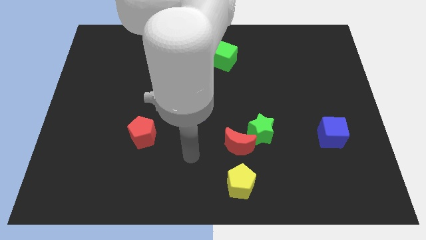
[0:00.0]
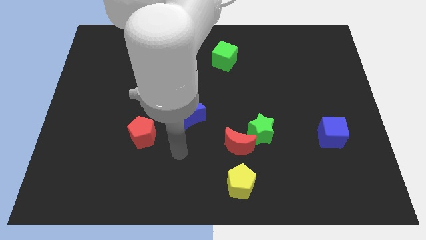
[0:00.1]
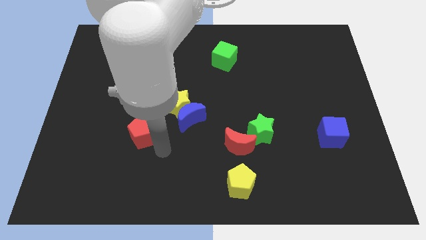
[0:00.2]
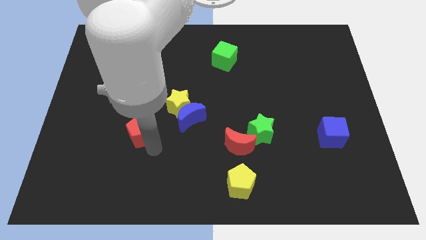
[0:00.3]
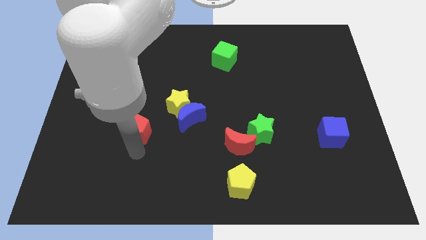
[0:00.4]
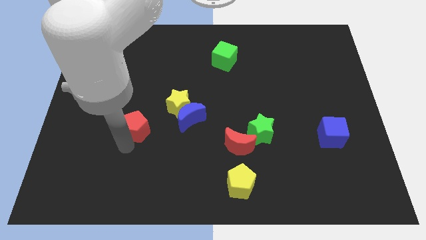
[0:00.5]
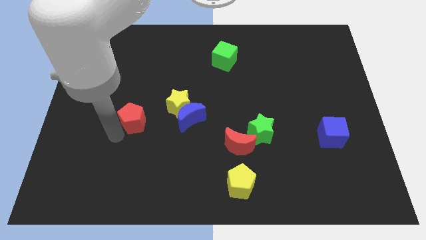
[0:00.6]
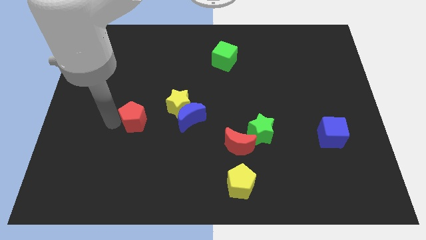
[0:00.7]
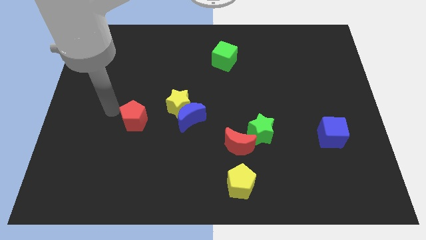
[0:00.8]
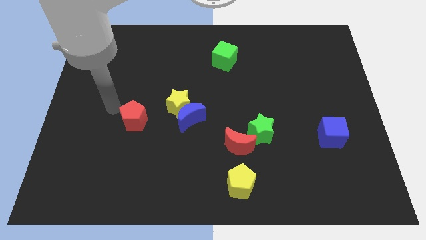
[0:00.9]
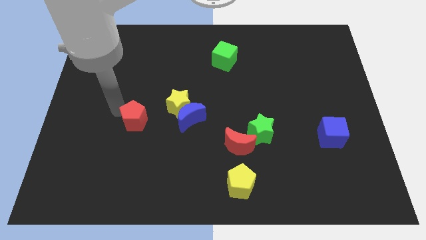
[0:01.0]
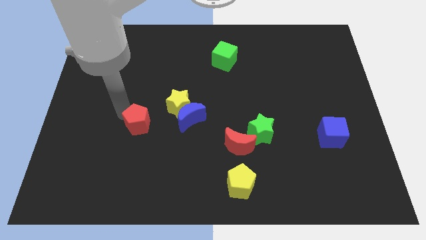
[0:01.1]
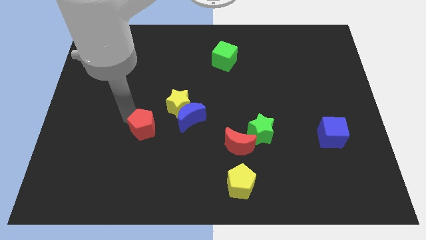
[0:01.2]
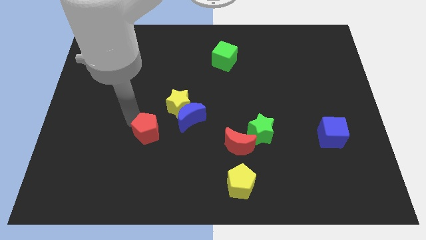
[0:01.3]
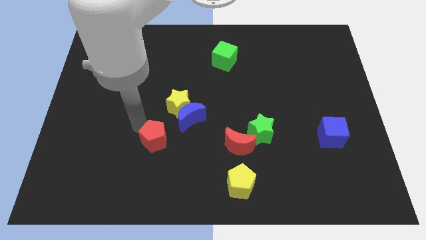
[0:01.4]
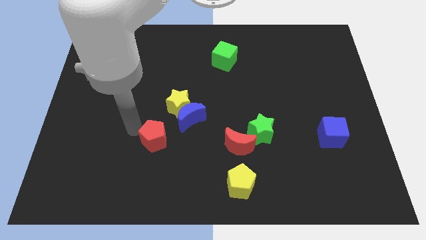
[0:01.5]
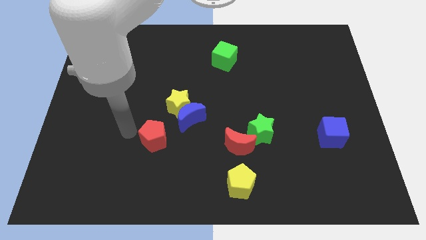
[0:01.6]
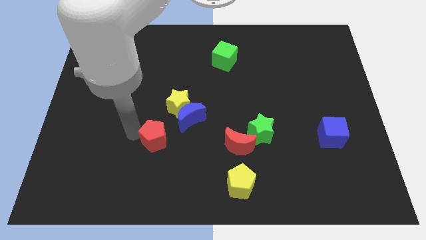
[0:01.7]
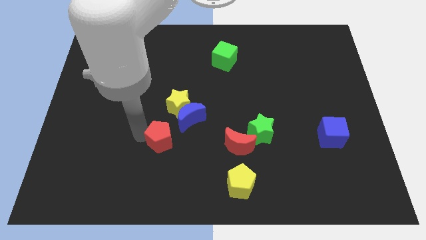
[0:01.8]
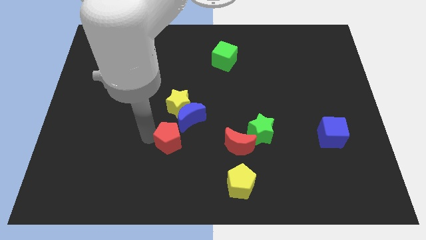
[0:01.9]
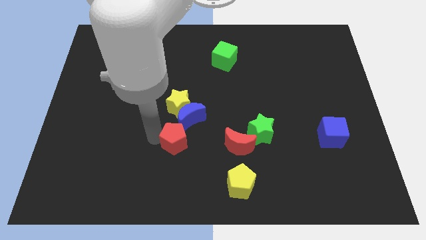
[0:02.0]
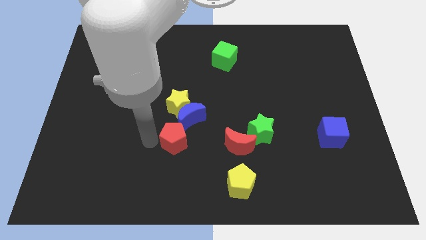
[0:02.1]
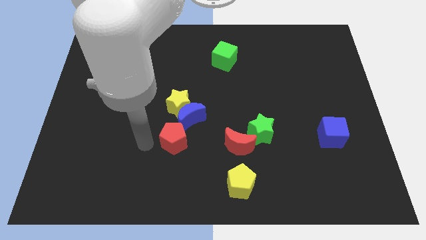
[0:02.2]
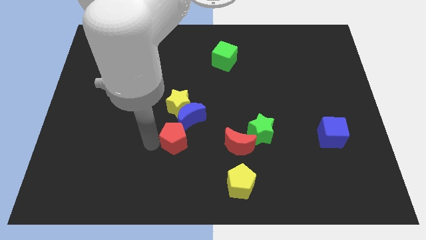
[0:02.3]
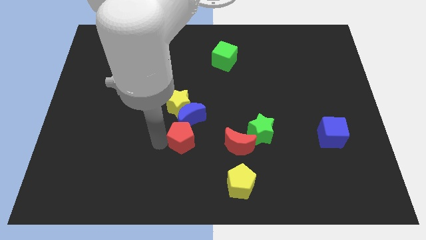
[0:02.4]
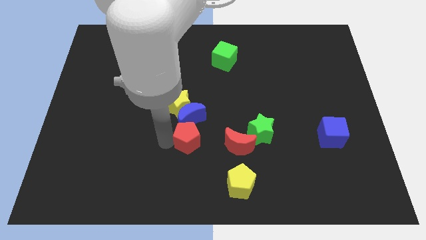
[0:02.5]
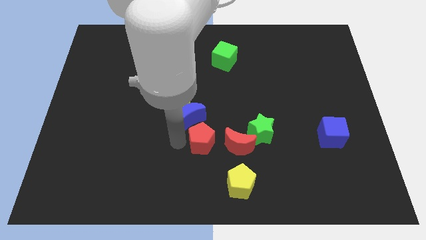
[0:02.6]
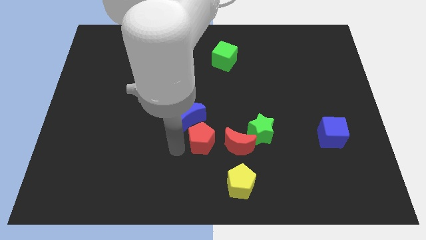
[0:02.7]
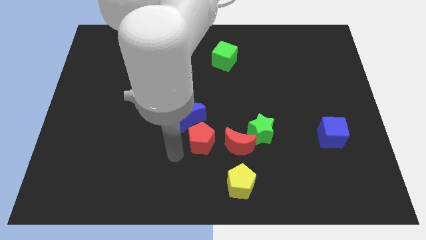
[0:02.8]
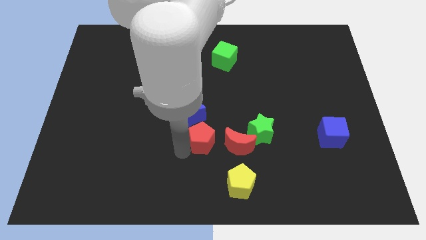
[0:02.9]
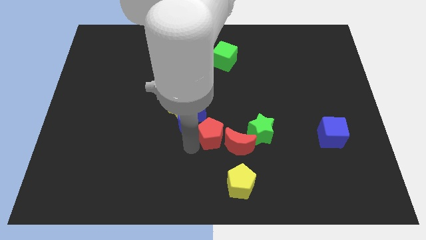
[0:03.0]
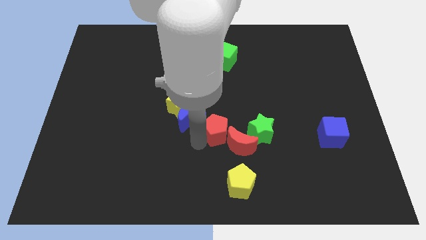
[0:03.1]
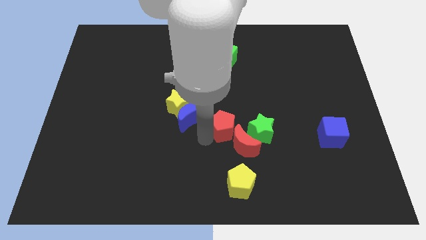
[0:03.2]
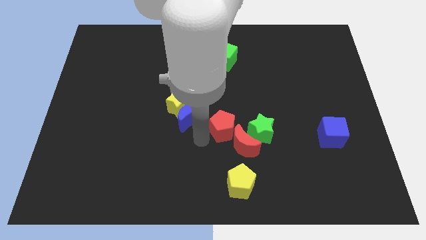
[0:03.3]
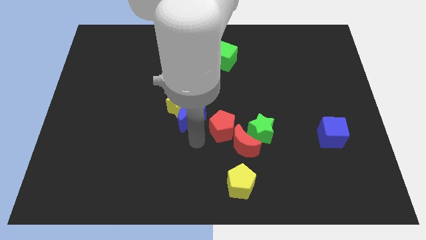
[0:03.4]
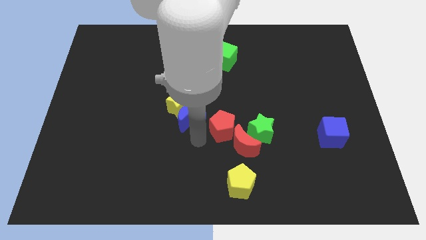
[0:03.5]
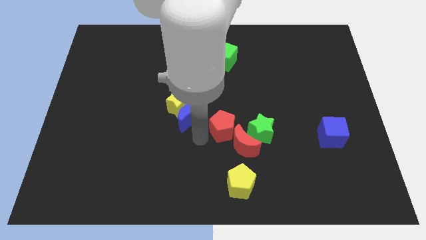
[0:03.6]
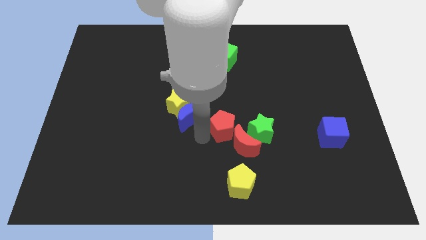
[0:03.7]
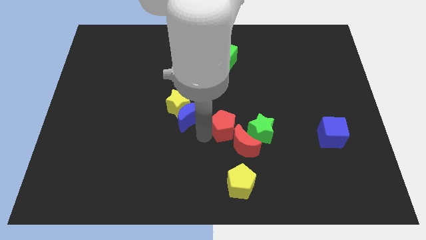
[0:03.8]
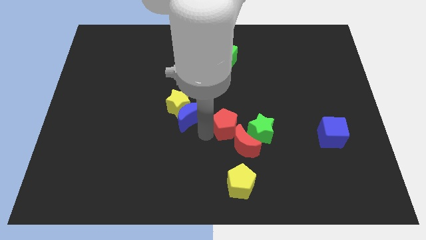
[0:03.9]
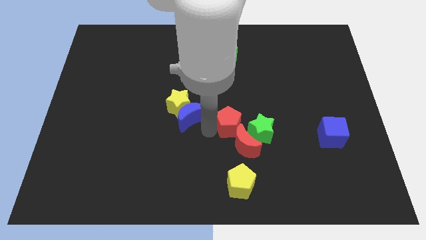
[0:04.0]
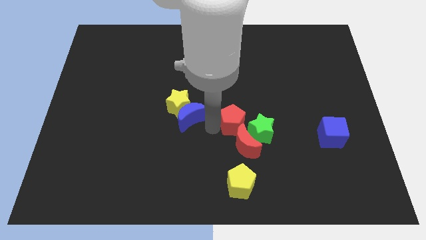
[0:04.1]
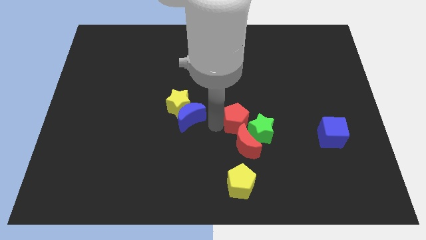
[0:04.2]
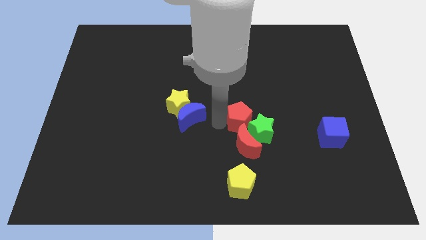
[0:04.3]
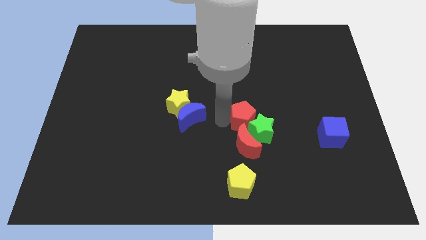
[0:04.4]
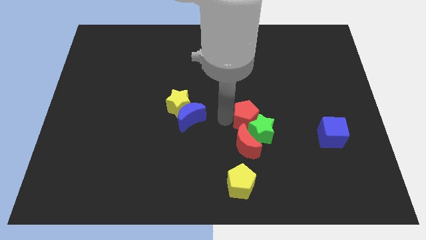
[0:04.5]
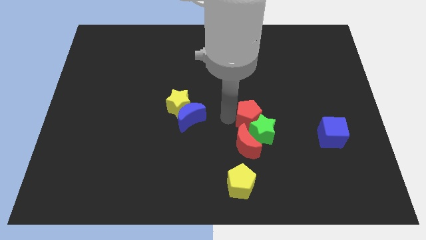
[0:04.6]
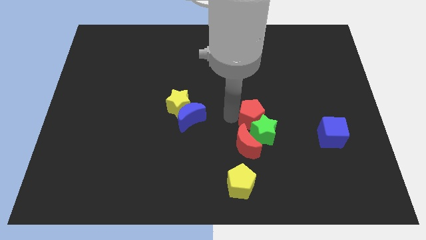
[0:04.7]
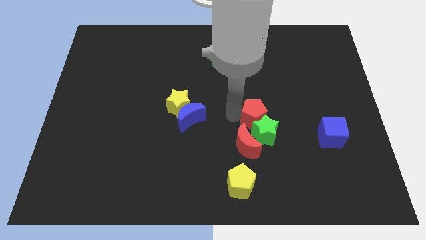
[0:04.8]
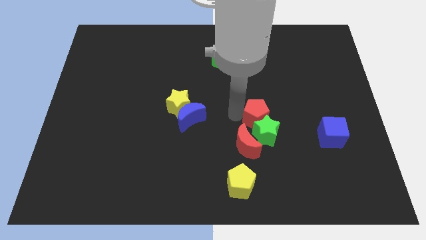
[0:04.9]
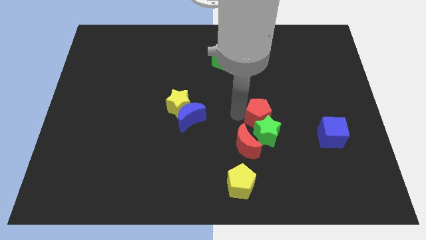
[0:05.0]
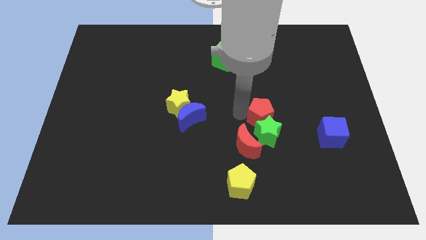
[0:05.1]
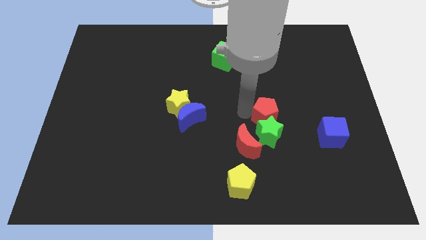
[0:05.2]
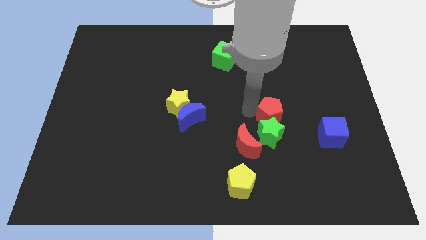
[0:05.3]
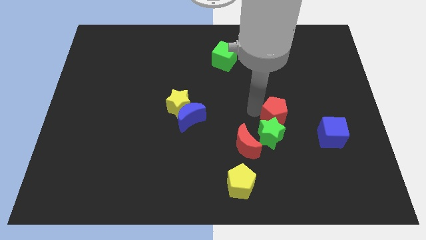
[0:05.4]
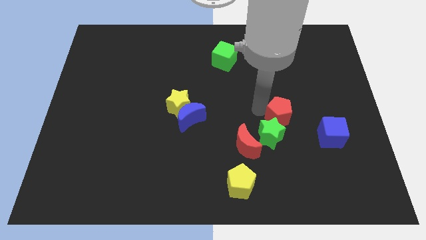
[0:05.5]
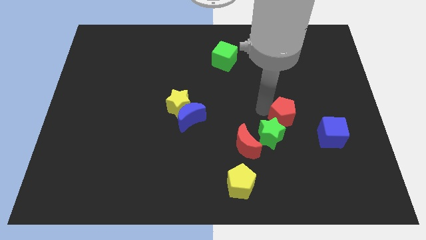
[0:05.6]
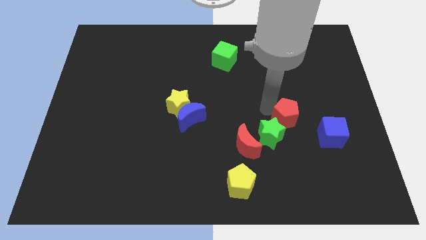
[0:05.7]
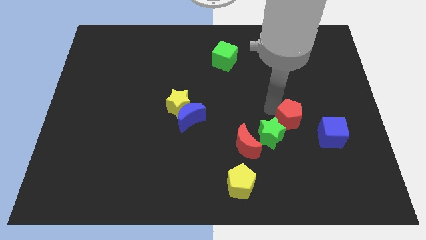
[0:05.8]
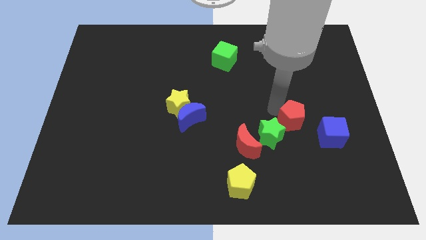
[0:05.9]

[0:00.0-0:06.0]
put the red pentagon to the right of the green star

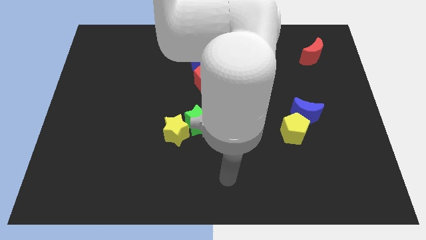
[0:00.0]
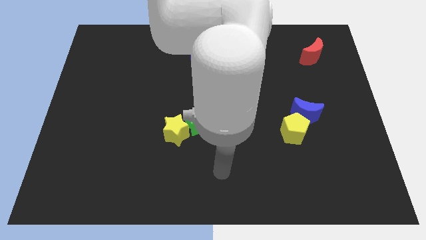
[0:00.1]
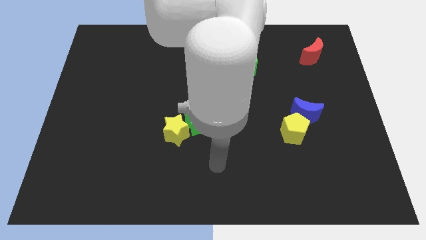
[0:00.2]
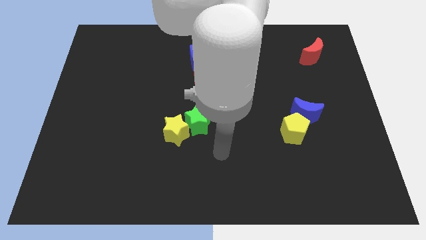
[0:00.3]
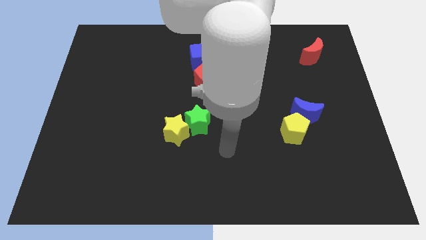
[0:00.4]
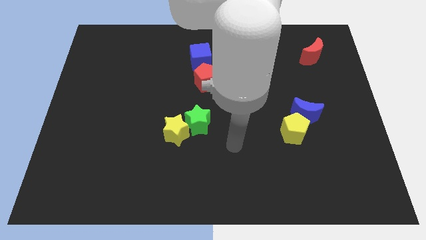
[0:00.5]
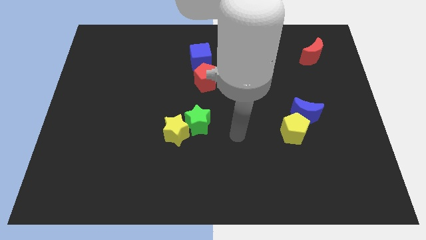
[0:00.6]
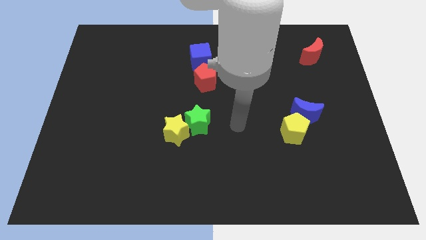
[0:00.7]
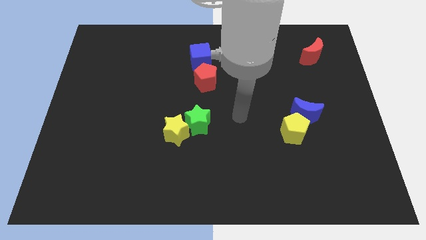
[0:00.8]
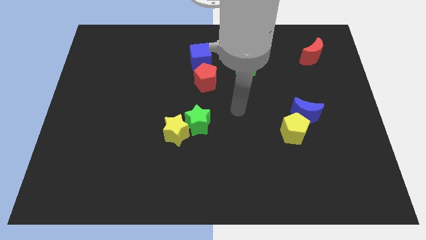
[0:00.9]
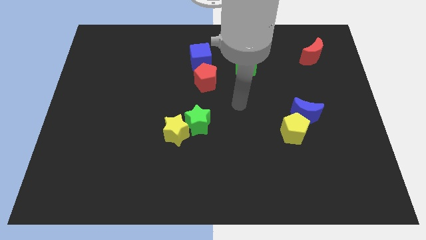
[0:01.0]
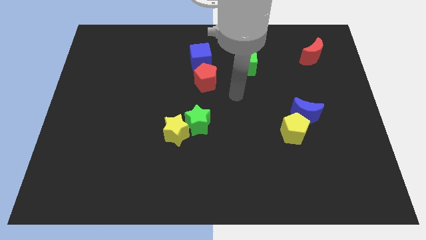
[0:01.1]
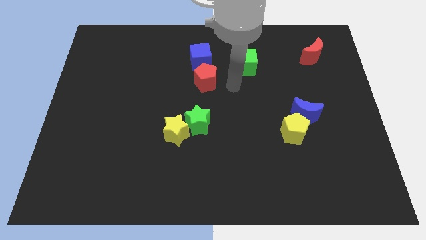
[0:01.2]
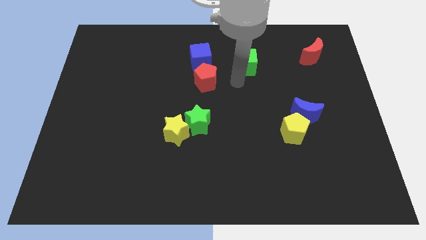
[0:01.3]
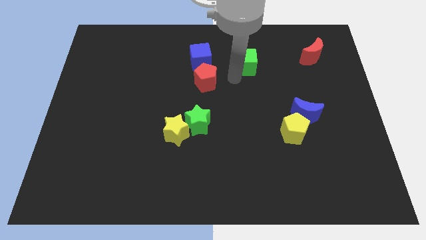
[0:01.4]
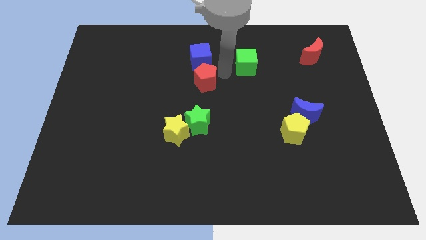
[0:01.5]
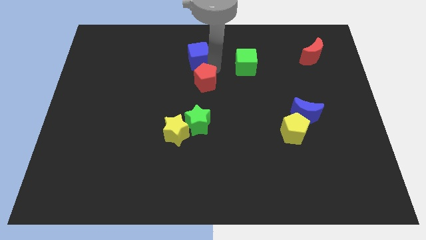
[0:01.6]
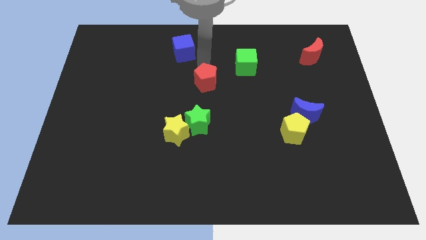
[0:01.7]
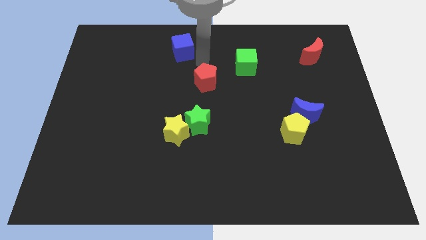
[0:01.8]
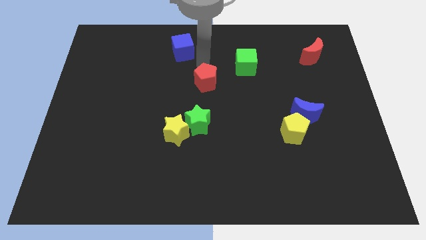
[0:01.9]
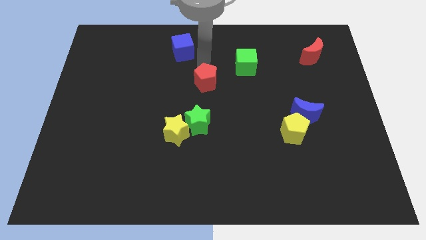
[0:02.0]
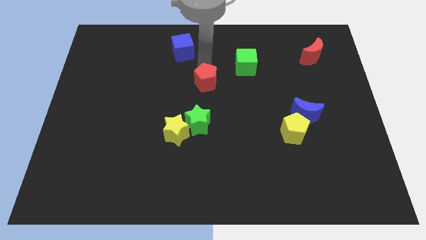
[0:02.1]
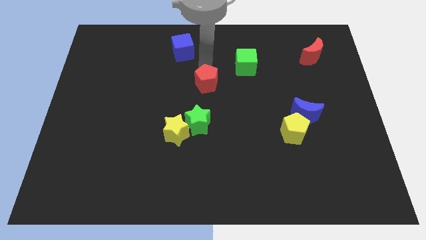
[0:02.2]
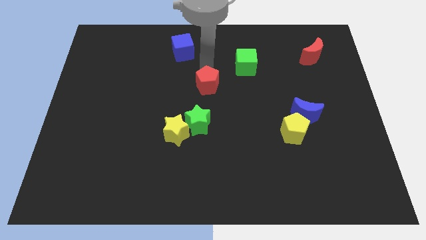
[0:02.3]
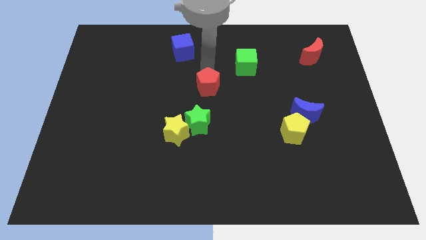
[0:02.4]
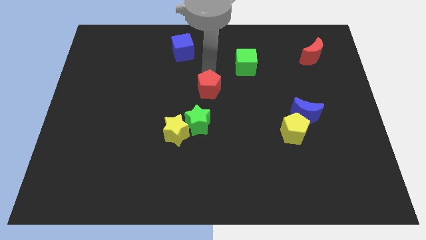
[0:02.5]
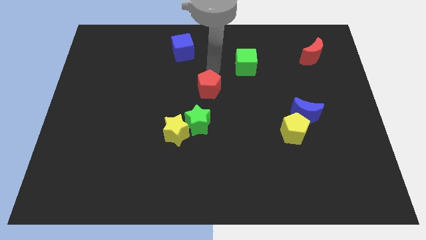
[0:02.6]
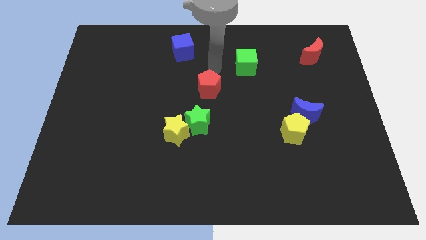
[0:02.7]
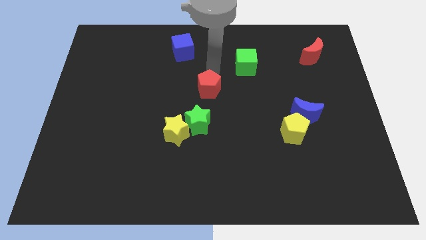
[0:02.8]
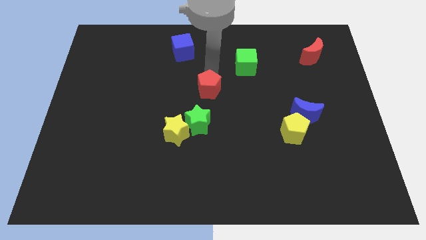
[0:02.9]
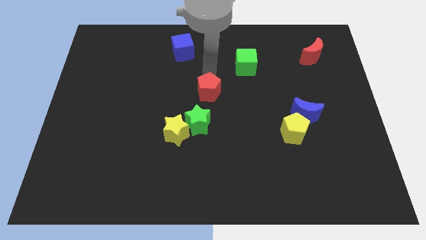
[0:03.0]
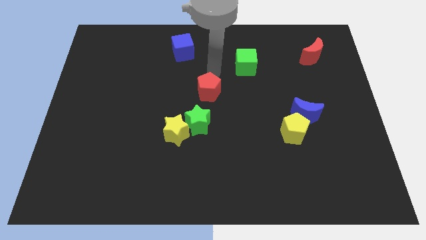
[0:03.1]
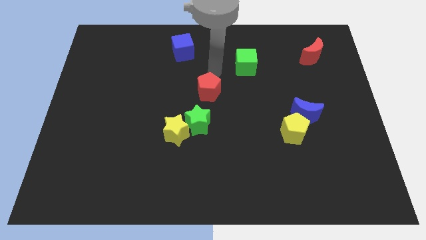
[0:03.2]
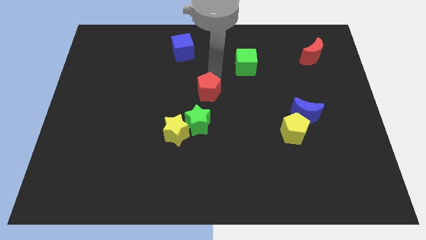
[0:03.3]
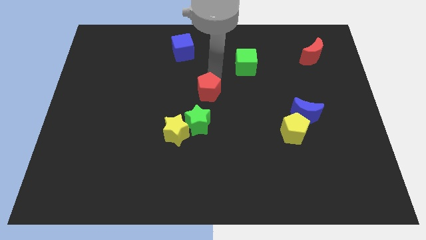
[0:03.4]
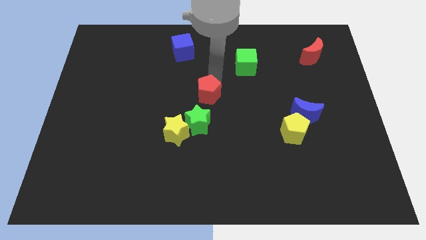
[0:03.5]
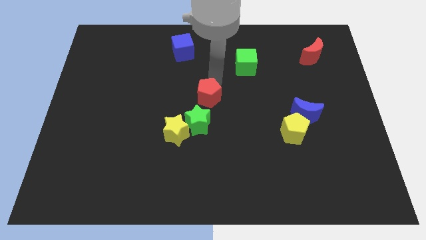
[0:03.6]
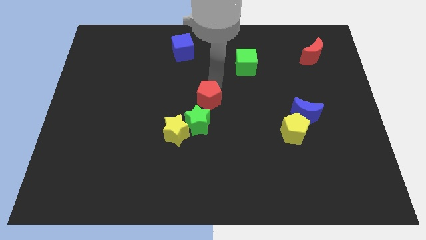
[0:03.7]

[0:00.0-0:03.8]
move the red pentagon diagonally up and to the right of the yellow star
